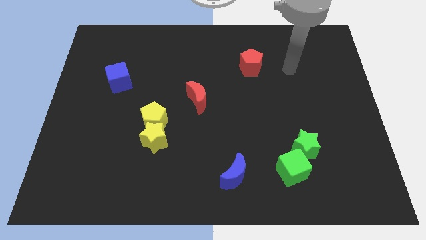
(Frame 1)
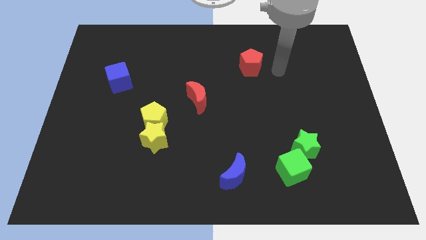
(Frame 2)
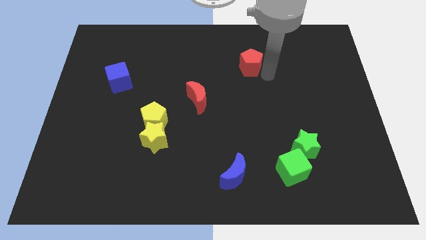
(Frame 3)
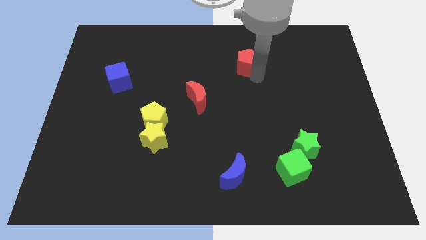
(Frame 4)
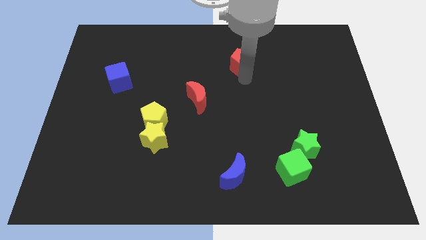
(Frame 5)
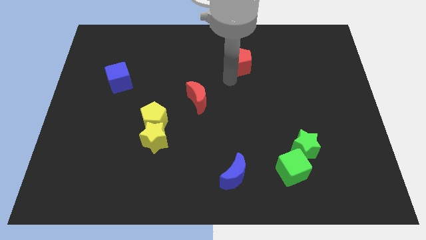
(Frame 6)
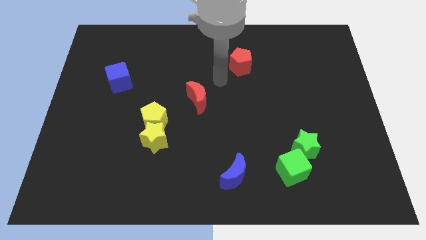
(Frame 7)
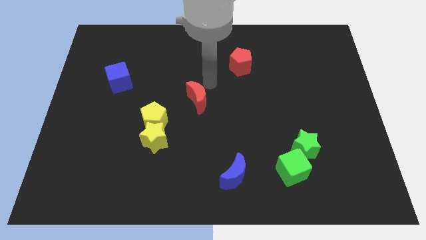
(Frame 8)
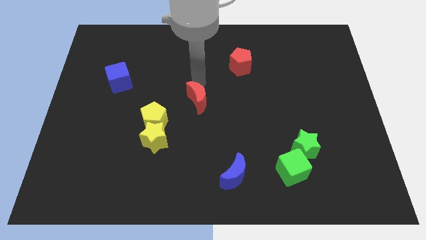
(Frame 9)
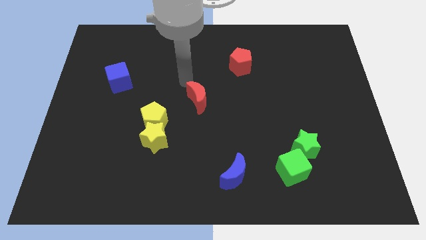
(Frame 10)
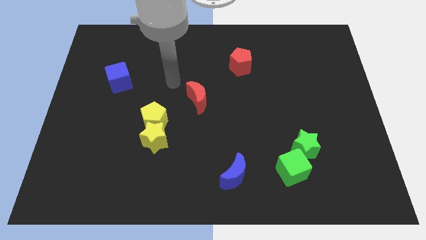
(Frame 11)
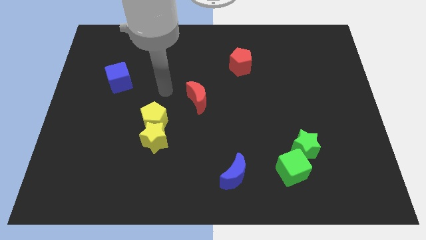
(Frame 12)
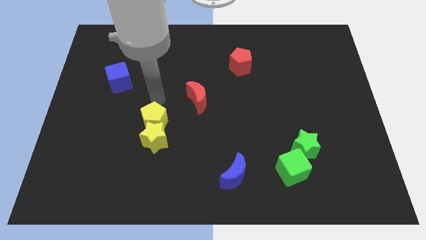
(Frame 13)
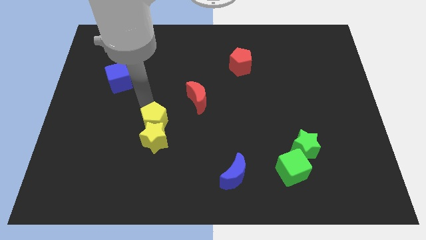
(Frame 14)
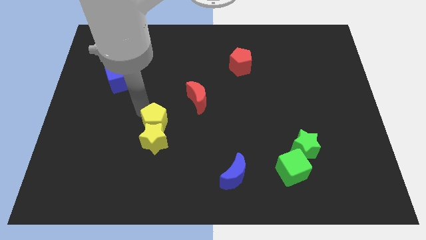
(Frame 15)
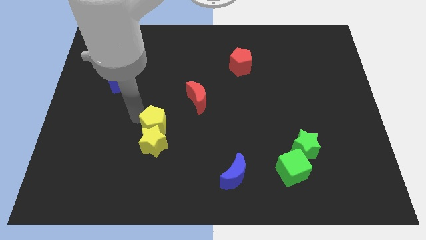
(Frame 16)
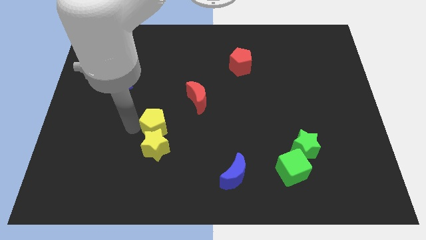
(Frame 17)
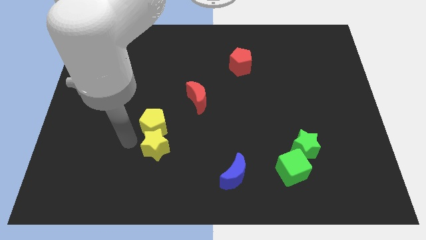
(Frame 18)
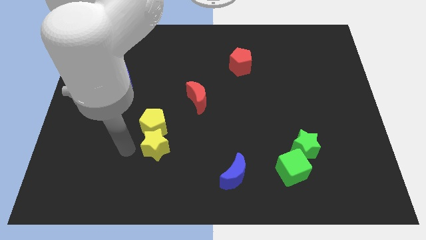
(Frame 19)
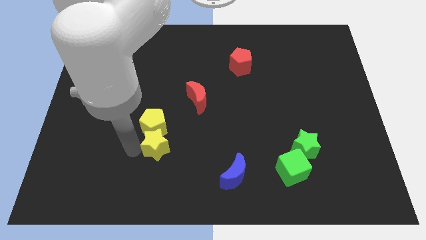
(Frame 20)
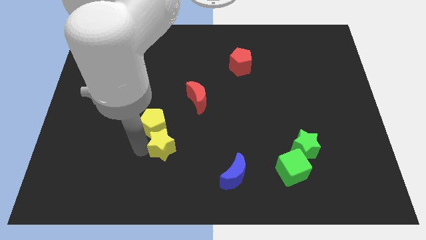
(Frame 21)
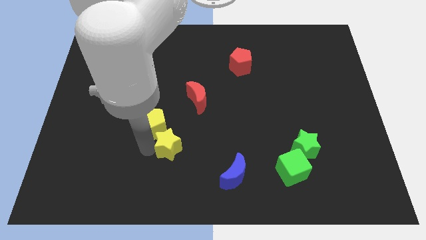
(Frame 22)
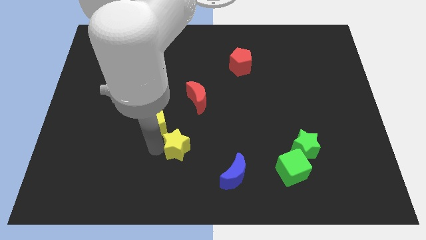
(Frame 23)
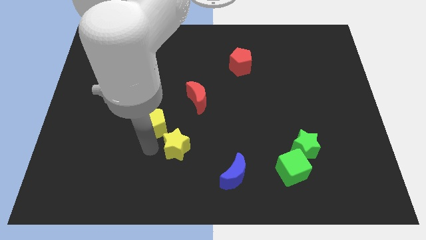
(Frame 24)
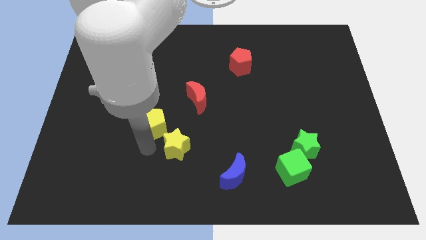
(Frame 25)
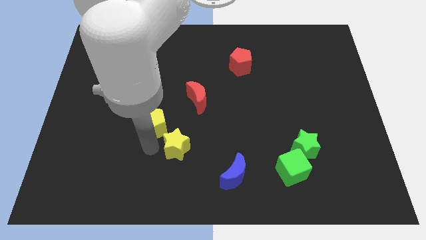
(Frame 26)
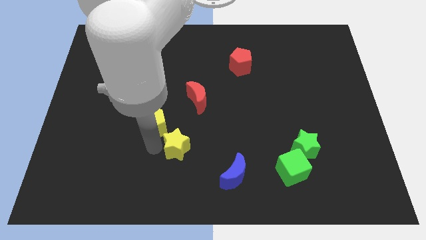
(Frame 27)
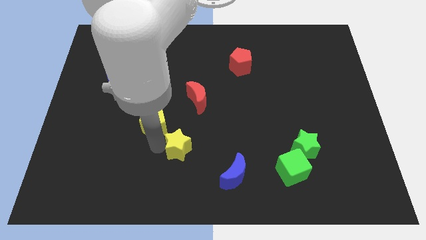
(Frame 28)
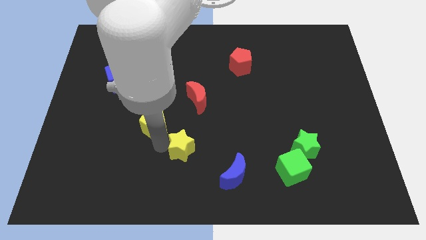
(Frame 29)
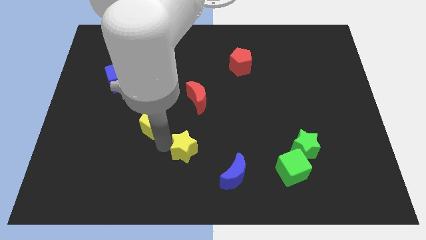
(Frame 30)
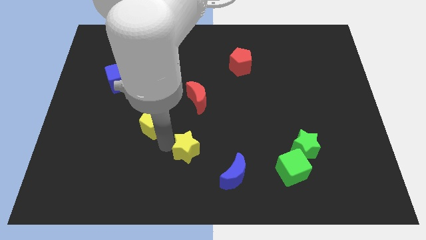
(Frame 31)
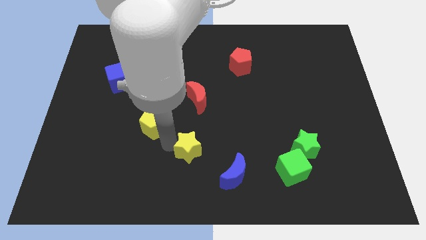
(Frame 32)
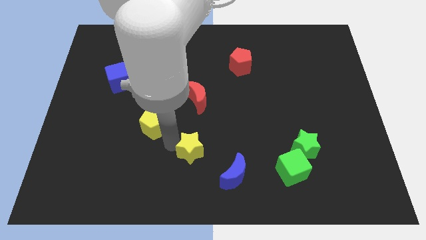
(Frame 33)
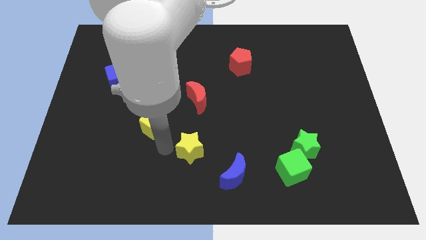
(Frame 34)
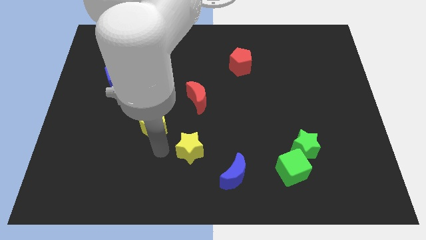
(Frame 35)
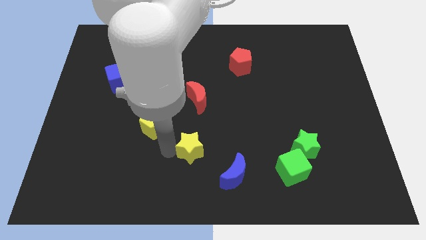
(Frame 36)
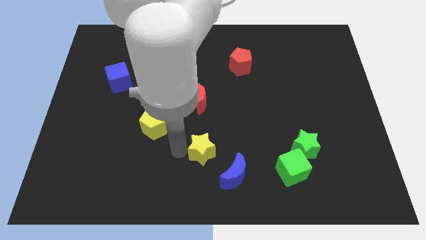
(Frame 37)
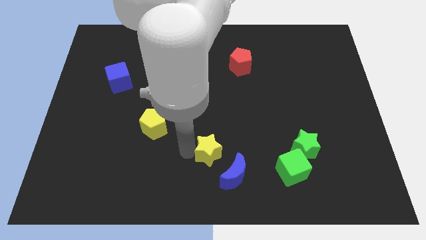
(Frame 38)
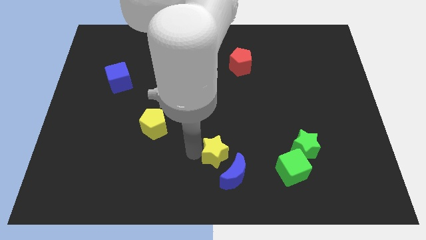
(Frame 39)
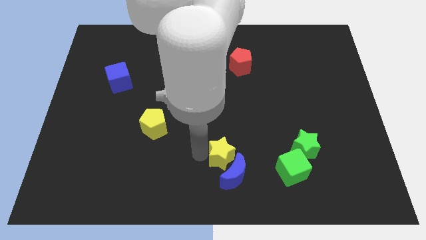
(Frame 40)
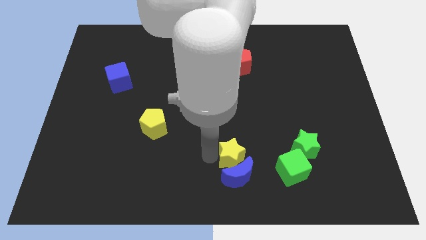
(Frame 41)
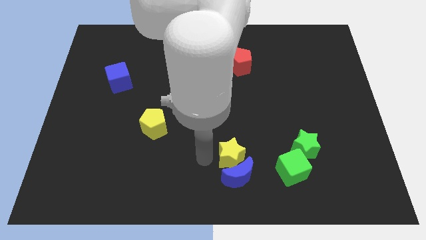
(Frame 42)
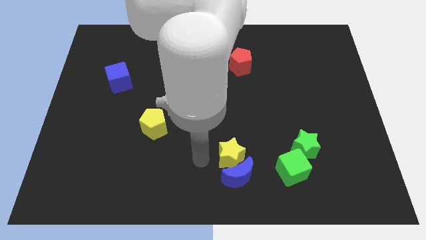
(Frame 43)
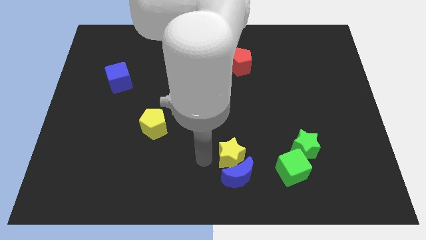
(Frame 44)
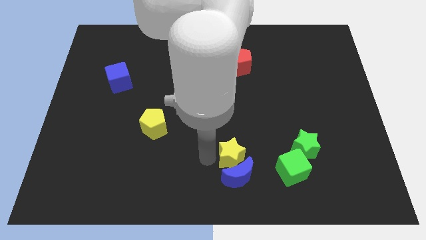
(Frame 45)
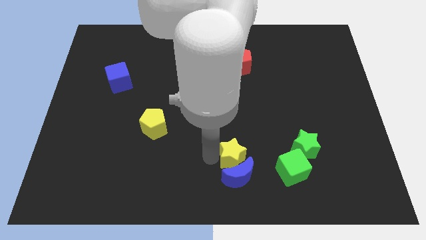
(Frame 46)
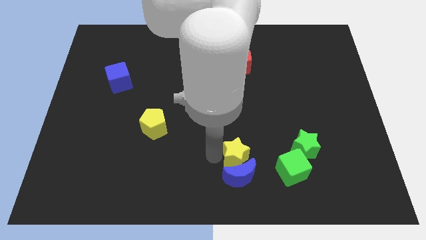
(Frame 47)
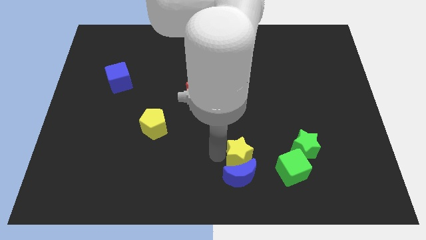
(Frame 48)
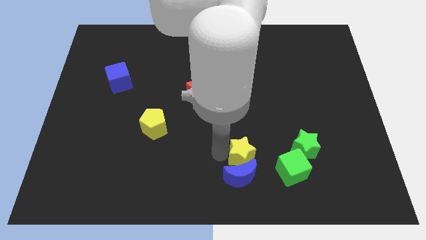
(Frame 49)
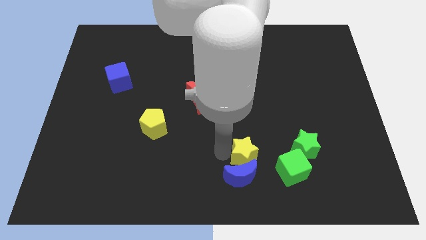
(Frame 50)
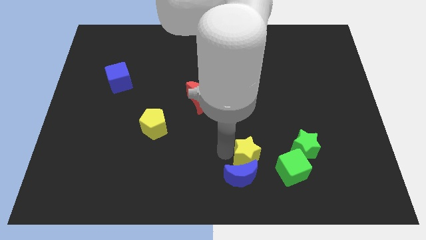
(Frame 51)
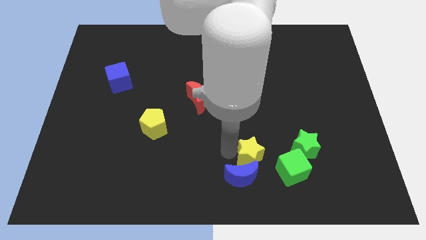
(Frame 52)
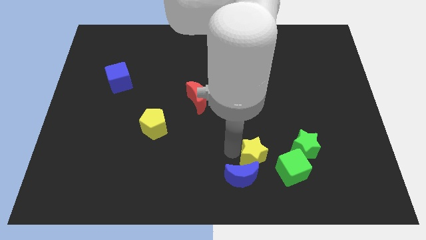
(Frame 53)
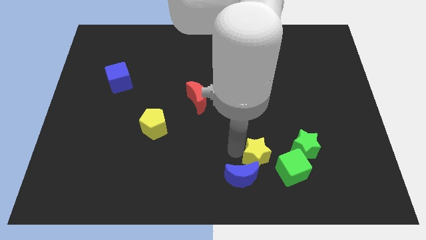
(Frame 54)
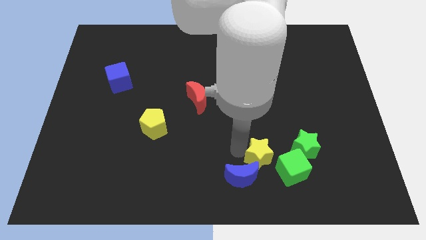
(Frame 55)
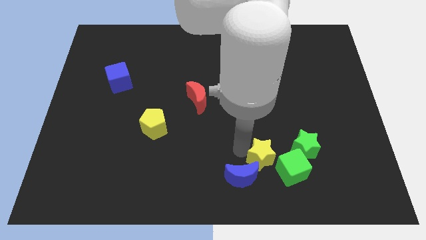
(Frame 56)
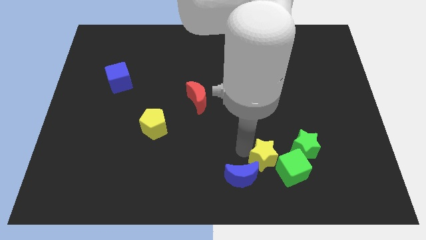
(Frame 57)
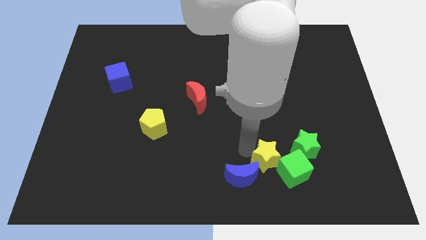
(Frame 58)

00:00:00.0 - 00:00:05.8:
slide the yellow star next to the green cube

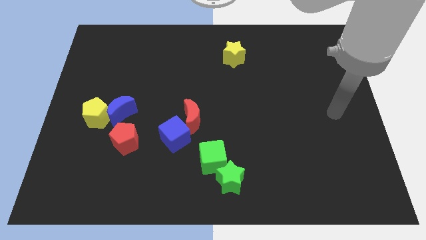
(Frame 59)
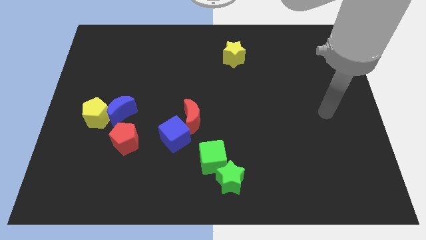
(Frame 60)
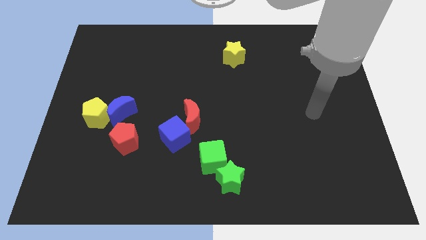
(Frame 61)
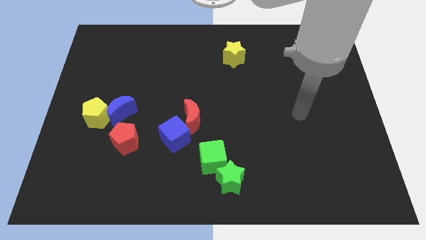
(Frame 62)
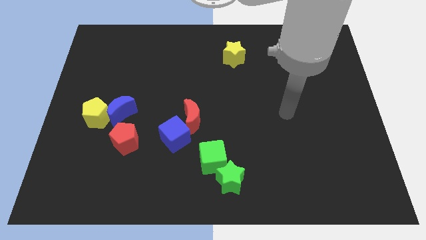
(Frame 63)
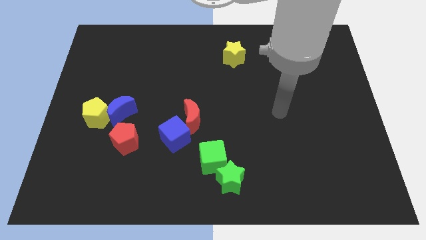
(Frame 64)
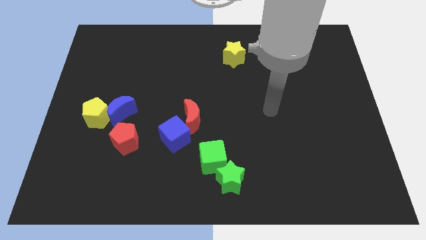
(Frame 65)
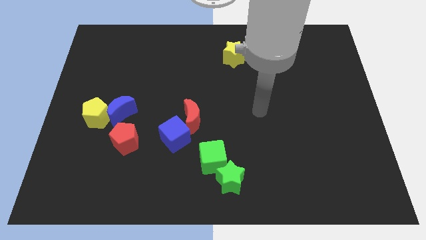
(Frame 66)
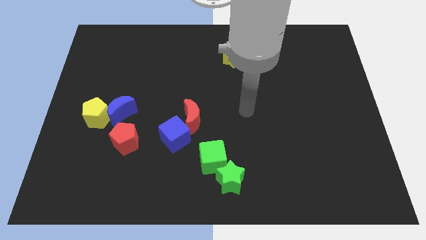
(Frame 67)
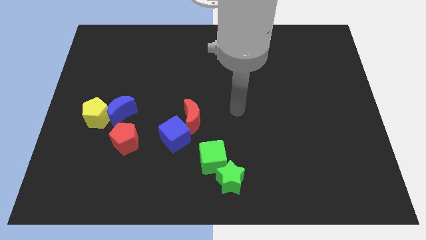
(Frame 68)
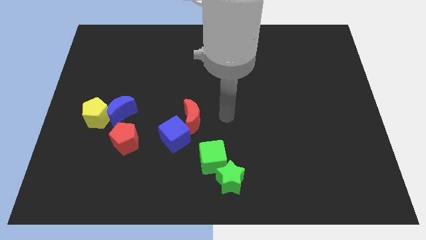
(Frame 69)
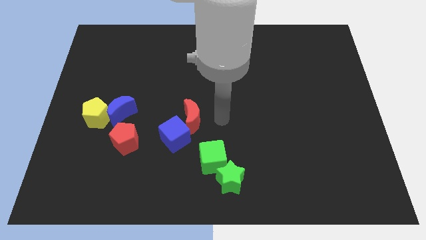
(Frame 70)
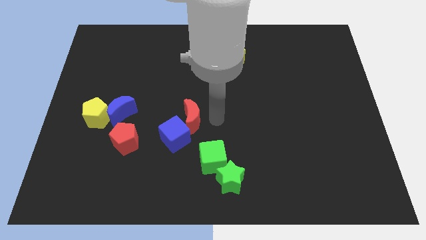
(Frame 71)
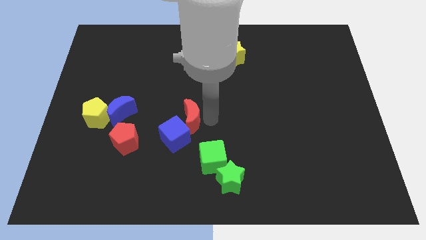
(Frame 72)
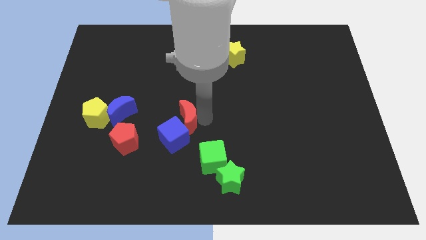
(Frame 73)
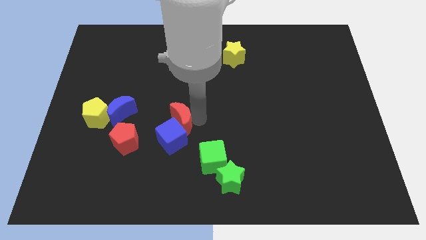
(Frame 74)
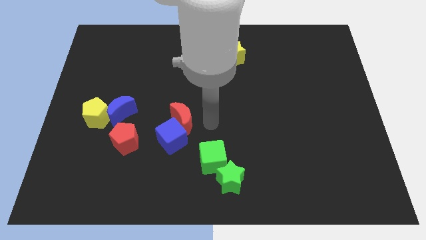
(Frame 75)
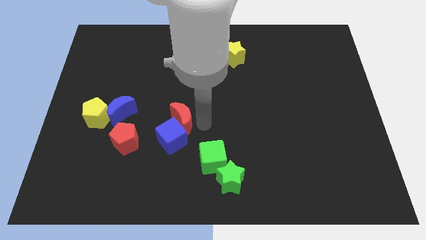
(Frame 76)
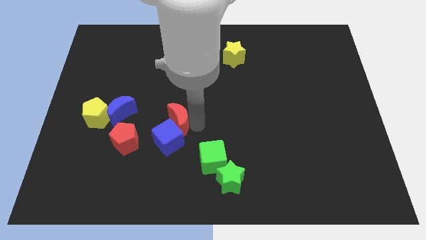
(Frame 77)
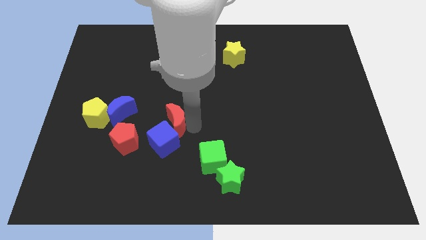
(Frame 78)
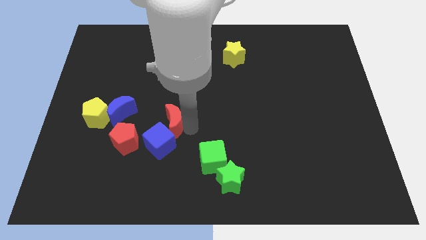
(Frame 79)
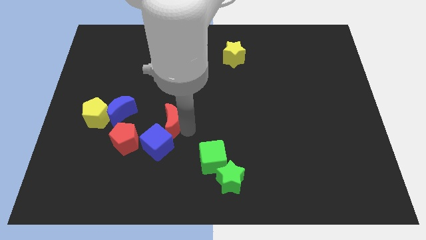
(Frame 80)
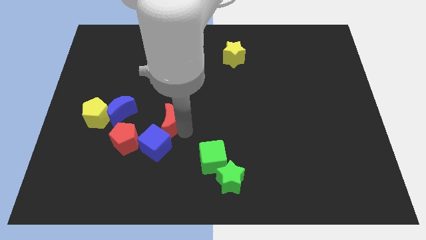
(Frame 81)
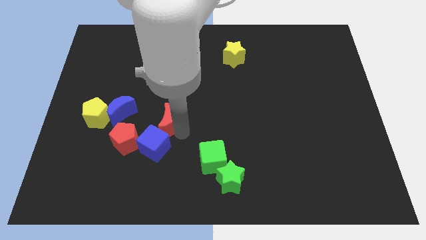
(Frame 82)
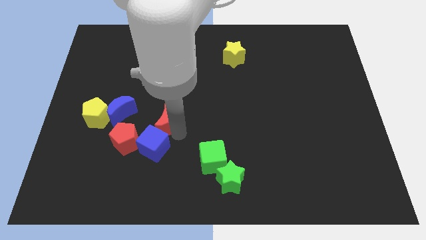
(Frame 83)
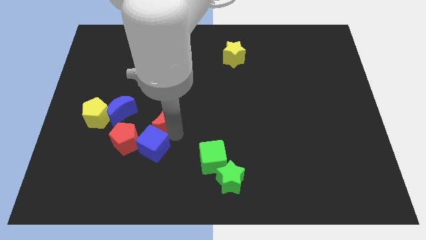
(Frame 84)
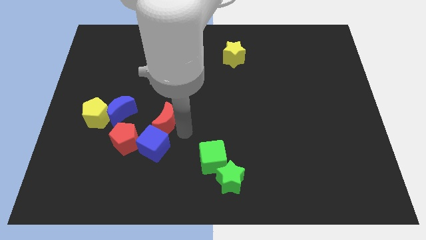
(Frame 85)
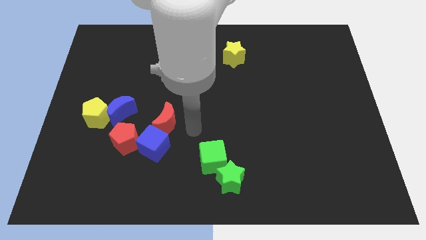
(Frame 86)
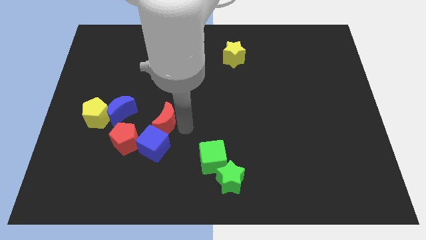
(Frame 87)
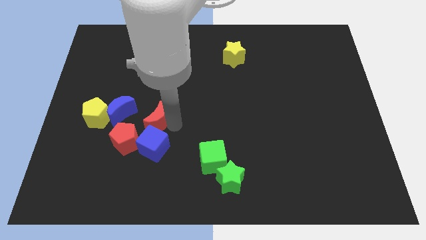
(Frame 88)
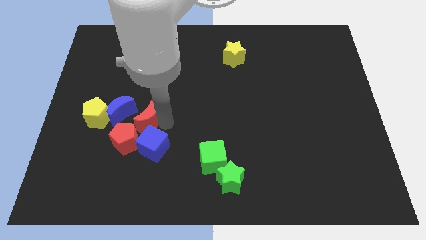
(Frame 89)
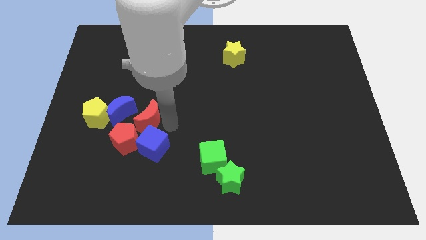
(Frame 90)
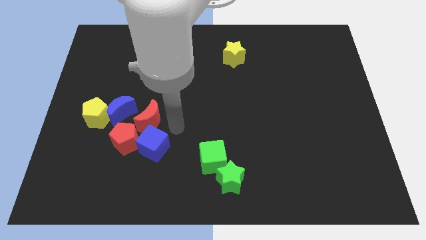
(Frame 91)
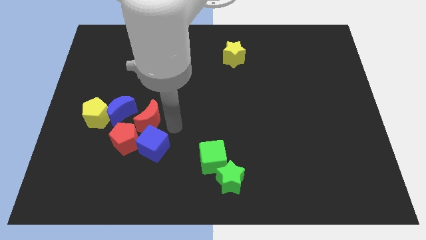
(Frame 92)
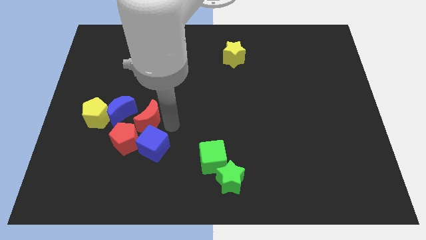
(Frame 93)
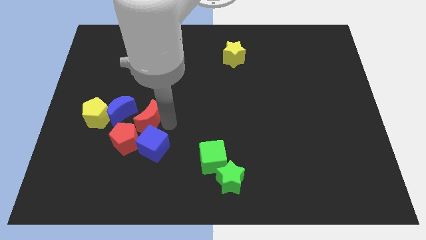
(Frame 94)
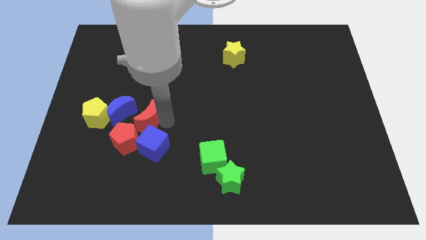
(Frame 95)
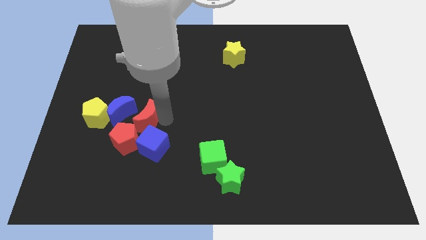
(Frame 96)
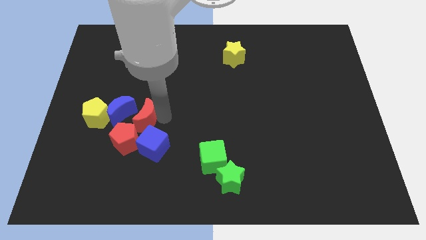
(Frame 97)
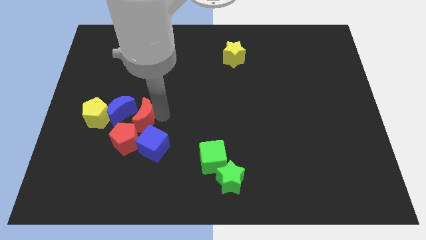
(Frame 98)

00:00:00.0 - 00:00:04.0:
move the red moon next to the blue moon
